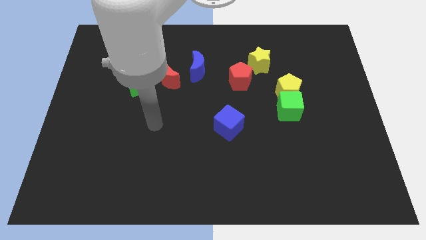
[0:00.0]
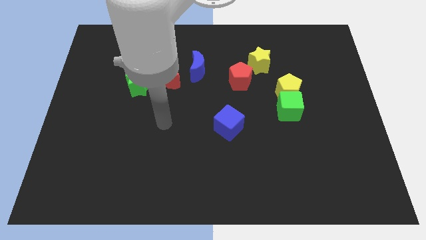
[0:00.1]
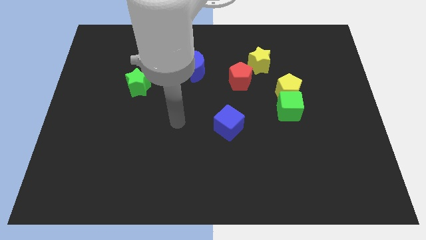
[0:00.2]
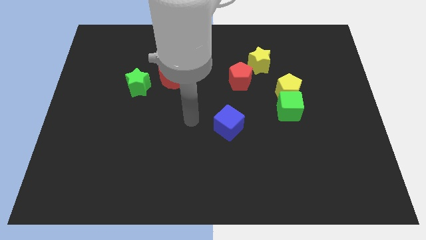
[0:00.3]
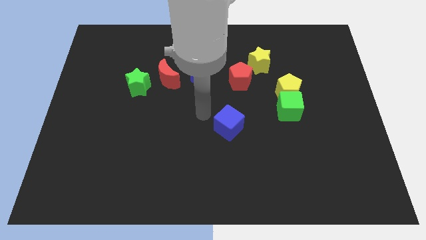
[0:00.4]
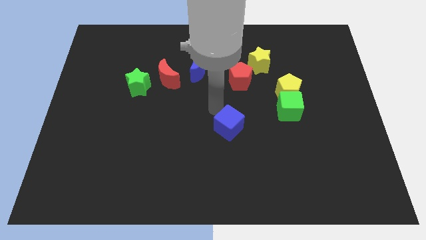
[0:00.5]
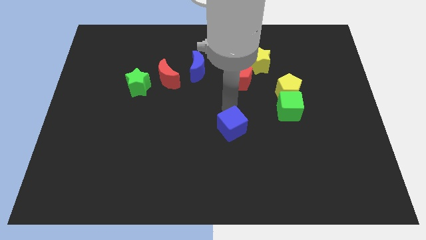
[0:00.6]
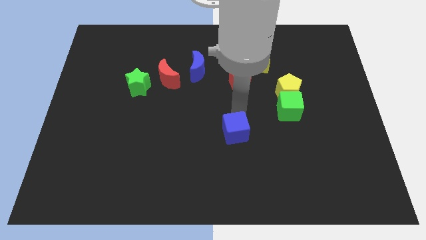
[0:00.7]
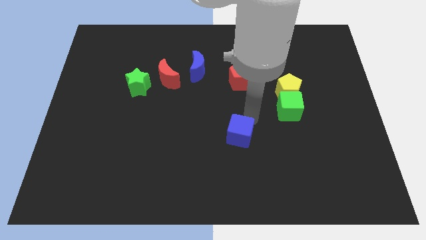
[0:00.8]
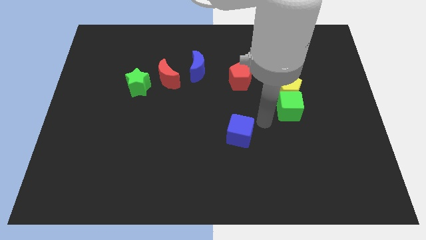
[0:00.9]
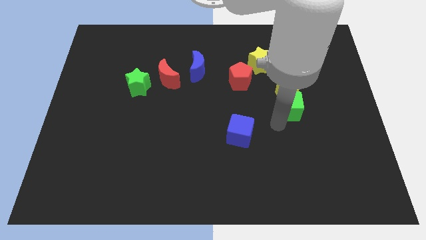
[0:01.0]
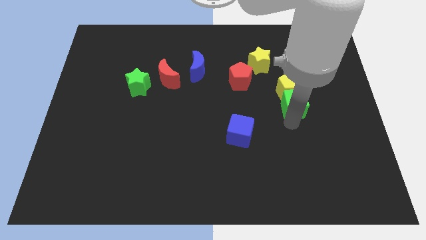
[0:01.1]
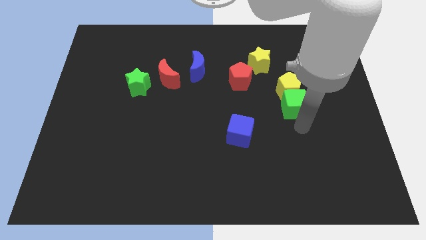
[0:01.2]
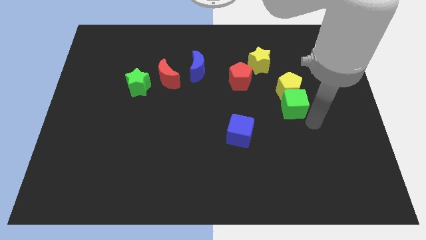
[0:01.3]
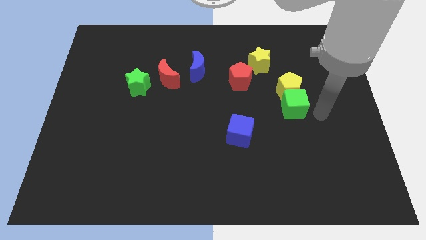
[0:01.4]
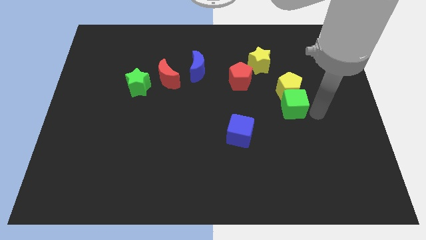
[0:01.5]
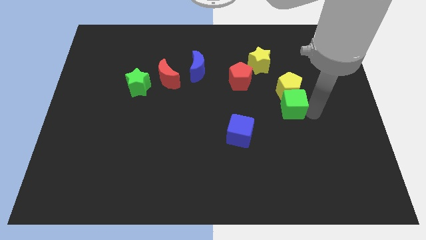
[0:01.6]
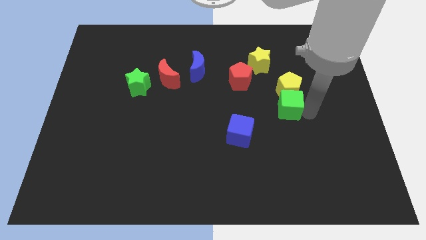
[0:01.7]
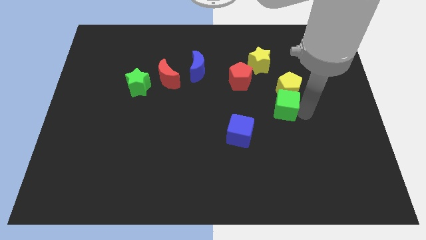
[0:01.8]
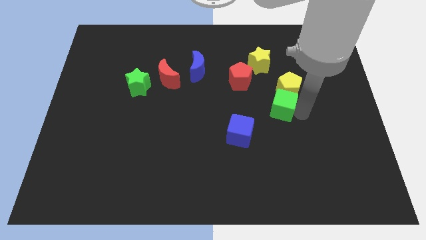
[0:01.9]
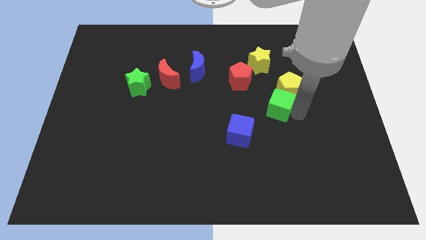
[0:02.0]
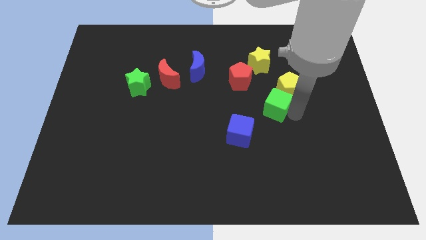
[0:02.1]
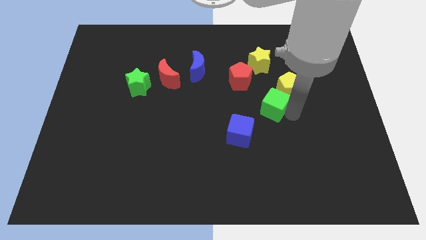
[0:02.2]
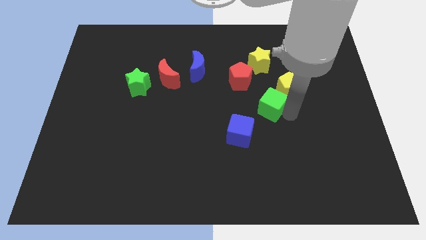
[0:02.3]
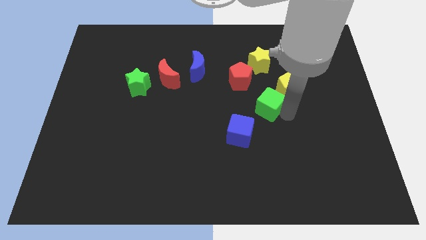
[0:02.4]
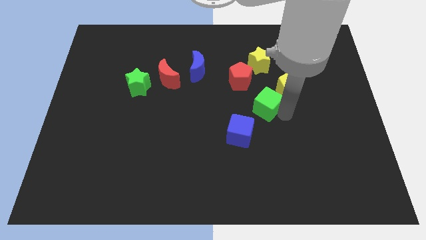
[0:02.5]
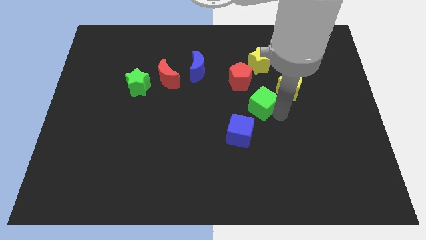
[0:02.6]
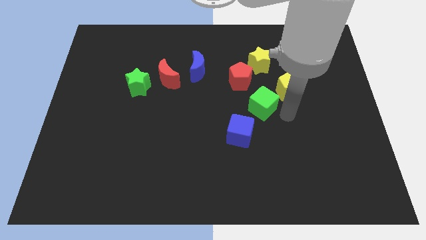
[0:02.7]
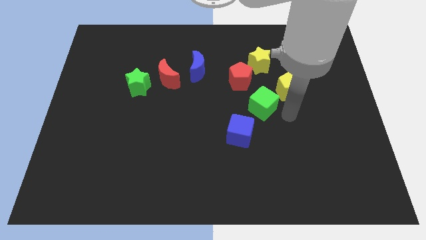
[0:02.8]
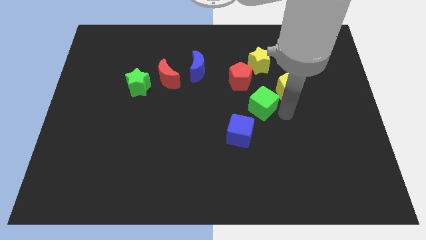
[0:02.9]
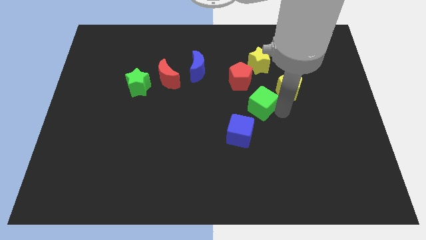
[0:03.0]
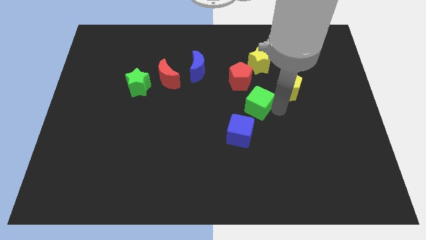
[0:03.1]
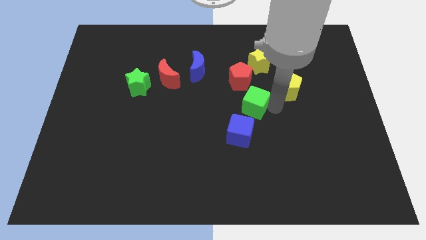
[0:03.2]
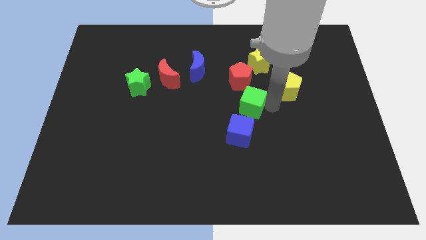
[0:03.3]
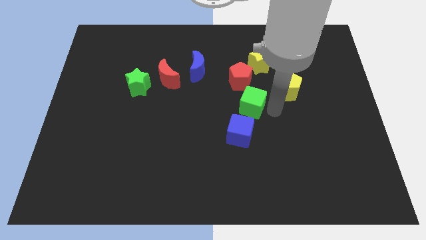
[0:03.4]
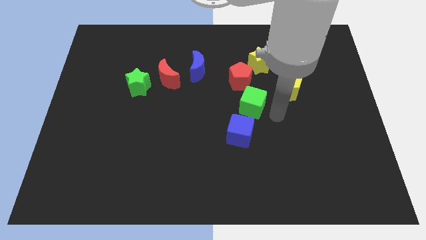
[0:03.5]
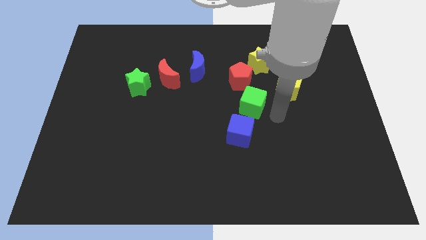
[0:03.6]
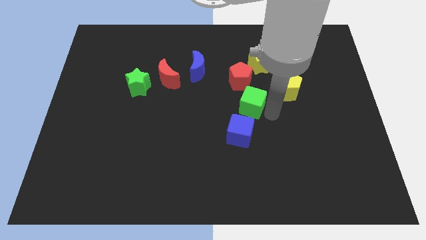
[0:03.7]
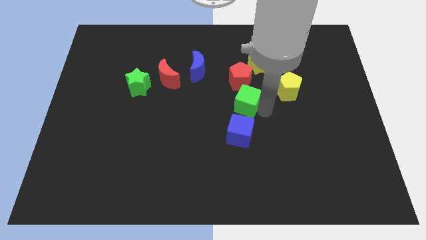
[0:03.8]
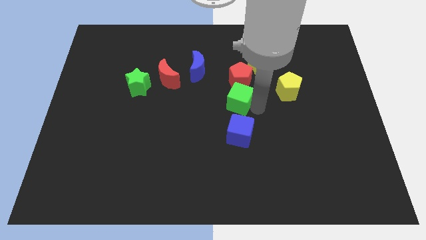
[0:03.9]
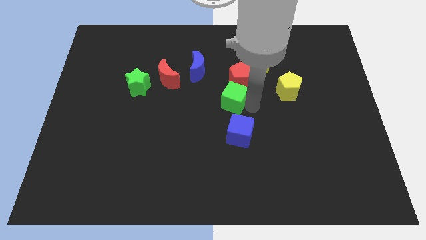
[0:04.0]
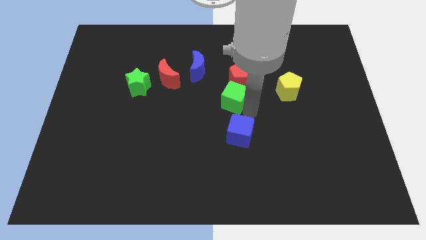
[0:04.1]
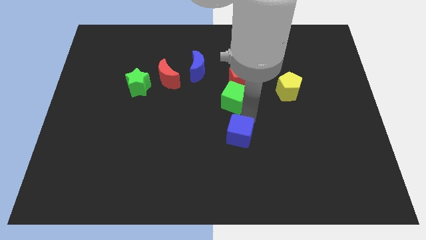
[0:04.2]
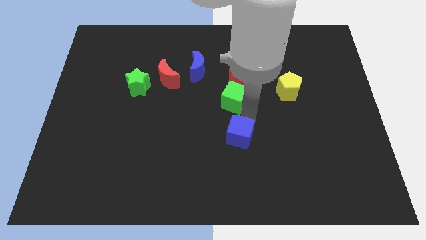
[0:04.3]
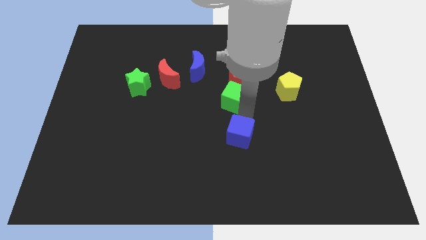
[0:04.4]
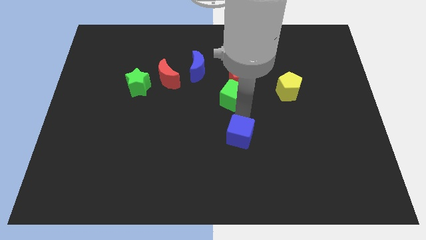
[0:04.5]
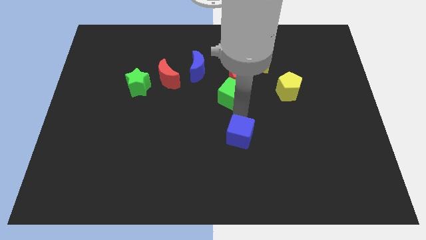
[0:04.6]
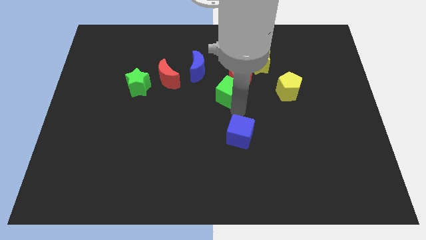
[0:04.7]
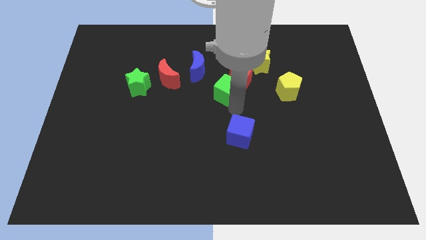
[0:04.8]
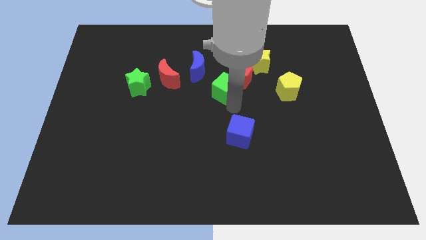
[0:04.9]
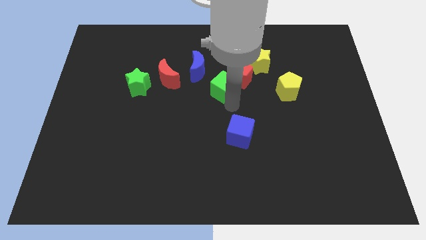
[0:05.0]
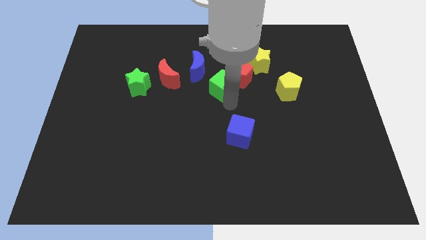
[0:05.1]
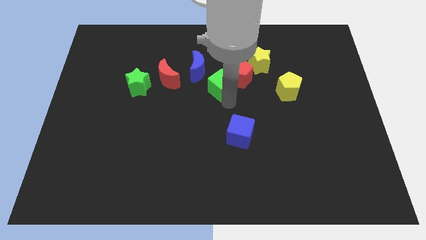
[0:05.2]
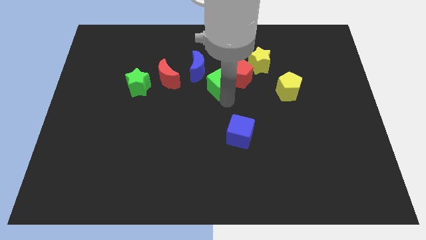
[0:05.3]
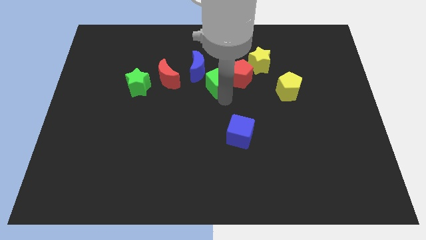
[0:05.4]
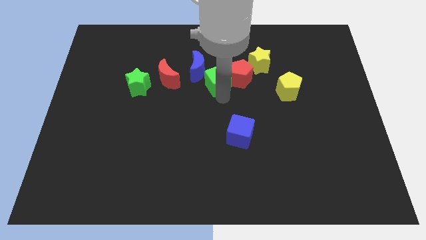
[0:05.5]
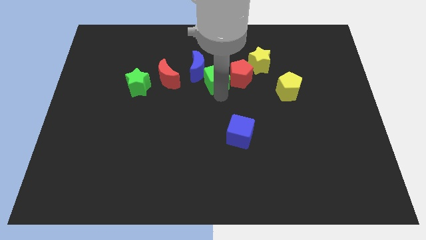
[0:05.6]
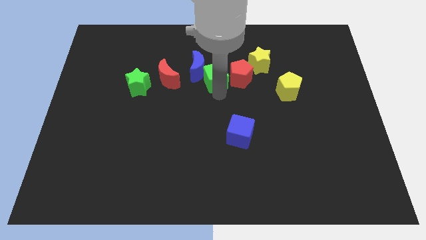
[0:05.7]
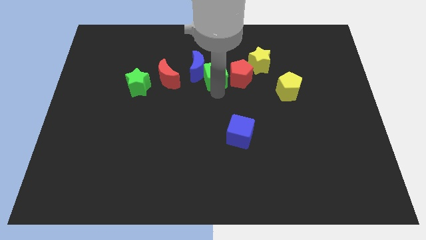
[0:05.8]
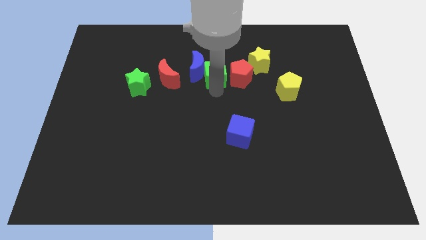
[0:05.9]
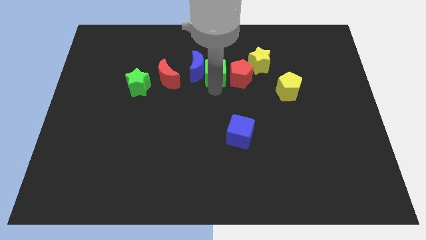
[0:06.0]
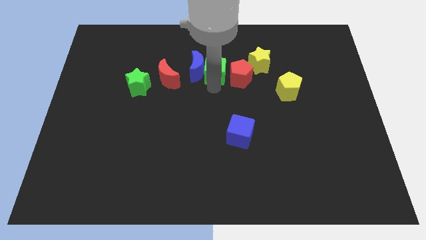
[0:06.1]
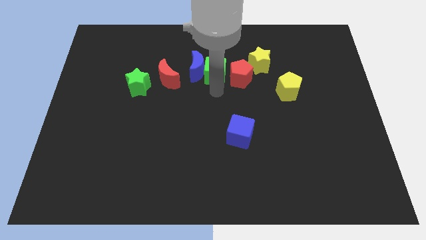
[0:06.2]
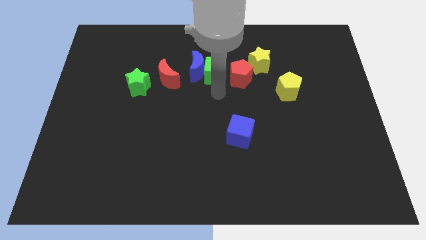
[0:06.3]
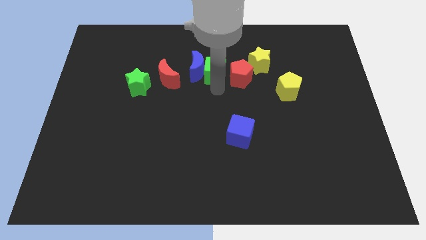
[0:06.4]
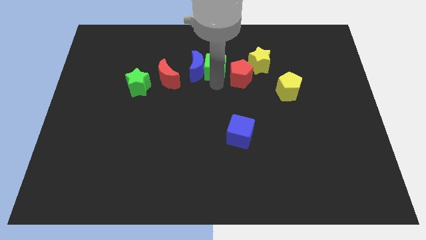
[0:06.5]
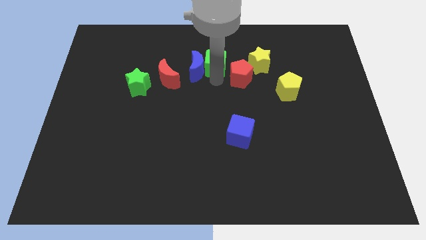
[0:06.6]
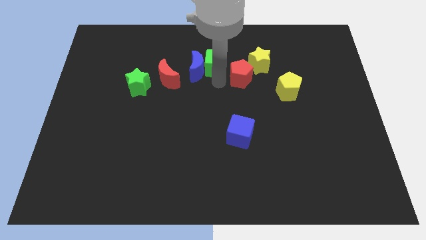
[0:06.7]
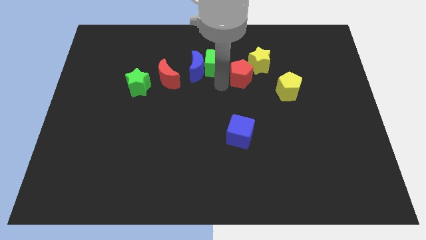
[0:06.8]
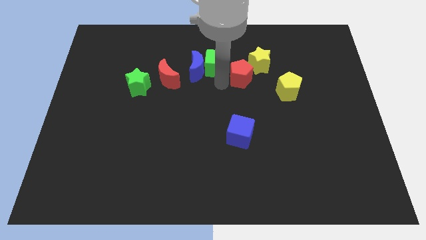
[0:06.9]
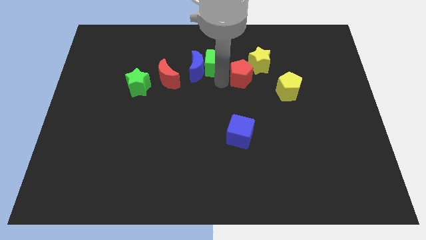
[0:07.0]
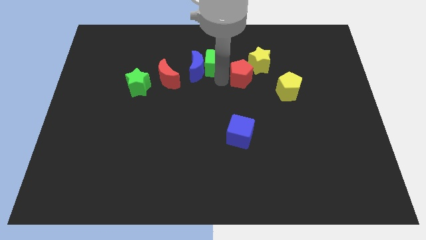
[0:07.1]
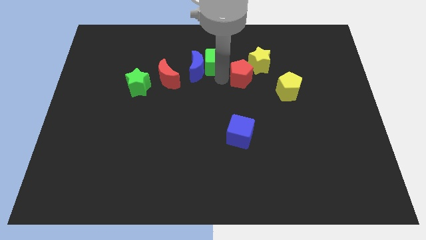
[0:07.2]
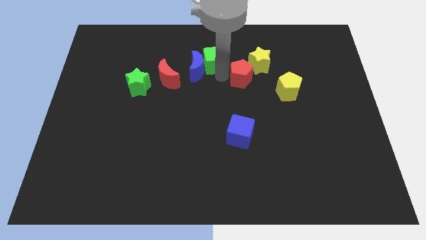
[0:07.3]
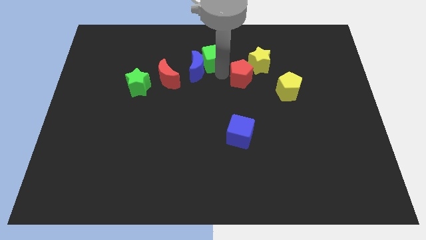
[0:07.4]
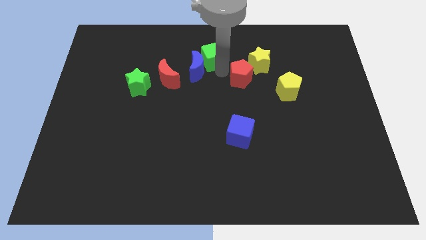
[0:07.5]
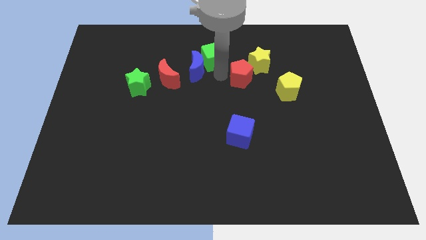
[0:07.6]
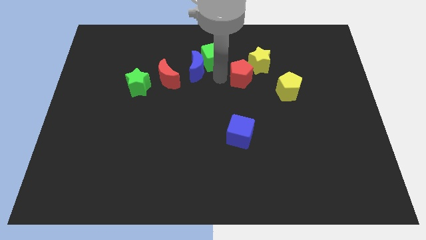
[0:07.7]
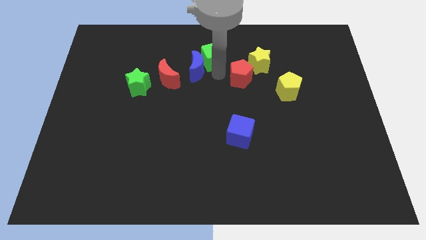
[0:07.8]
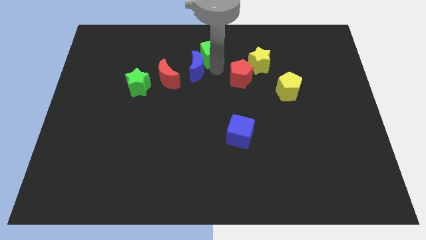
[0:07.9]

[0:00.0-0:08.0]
put the green cube to the towards your base
